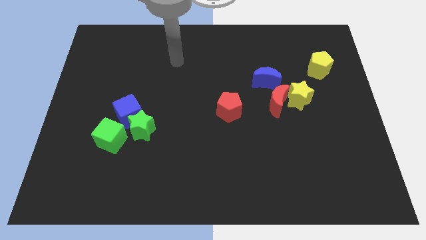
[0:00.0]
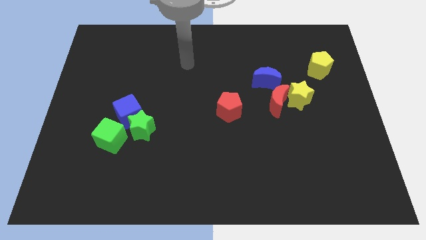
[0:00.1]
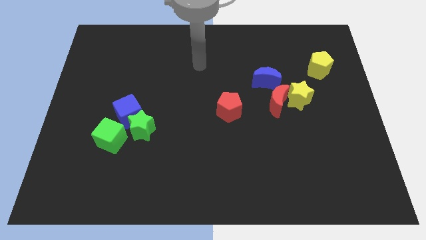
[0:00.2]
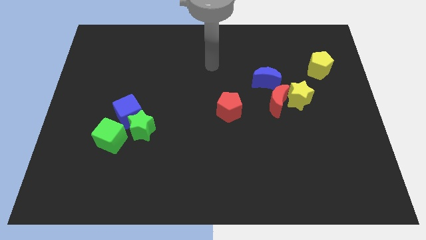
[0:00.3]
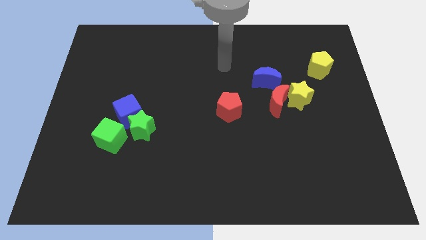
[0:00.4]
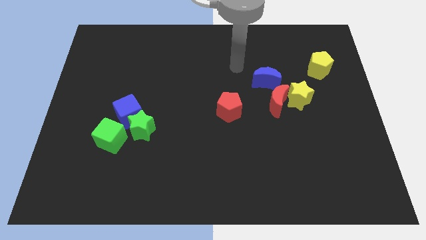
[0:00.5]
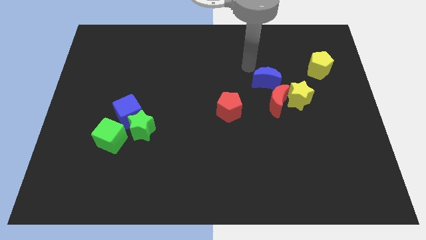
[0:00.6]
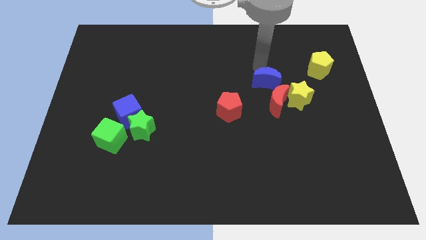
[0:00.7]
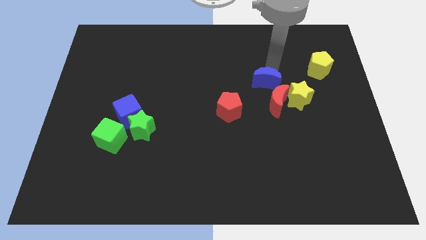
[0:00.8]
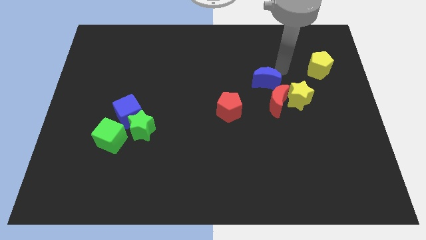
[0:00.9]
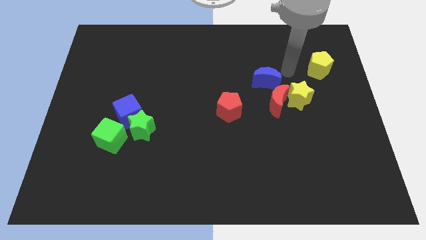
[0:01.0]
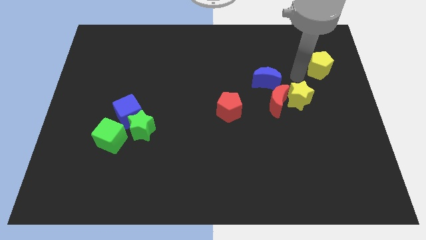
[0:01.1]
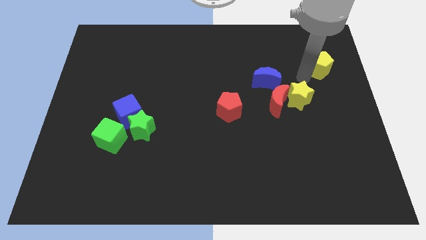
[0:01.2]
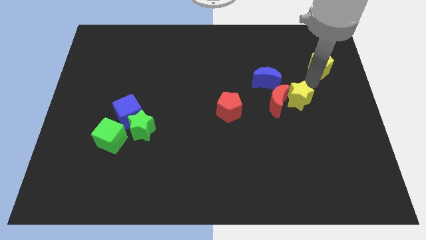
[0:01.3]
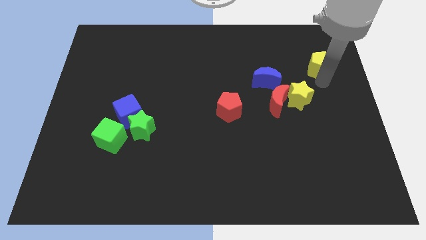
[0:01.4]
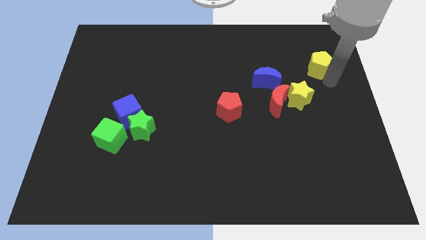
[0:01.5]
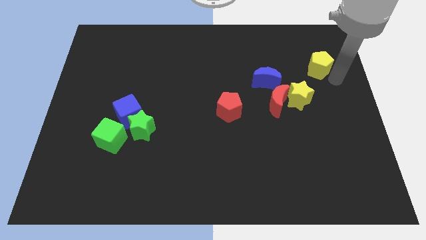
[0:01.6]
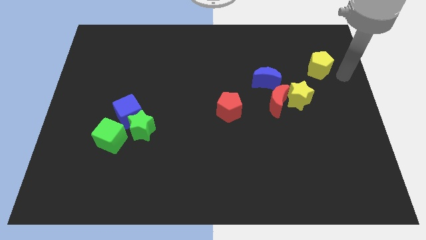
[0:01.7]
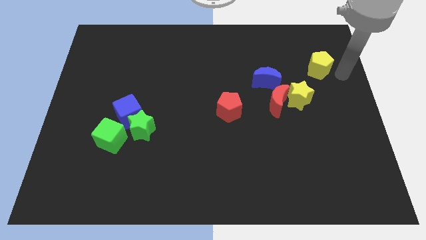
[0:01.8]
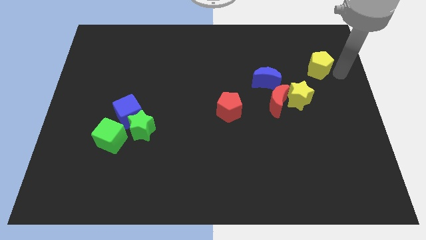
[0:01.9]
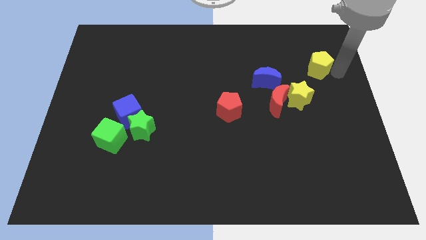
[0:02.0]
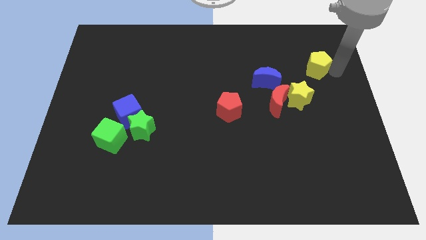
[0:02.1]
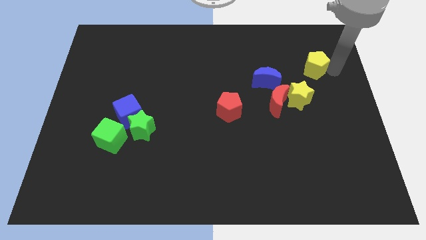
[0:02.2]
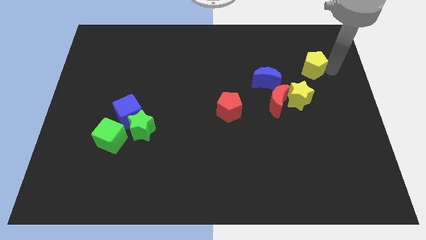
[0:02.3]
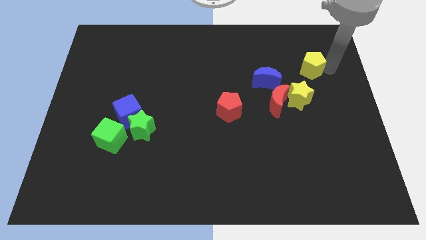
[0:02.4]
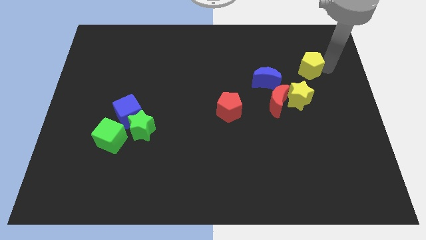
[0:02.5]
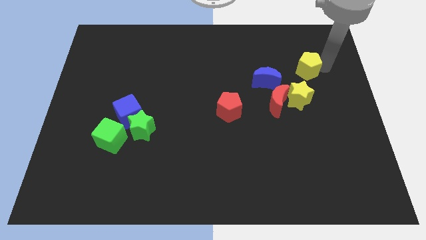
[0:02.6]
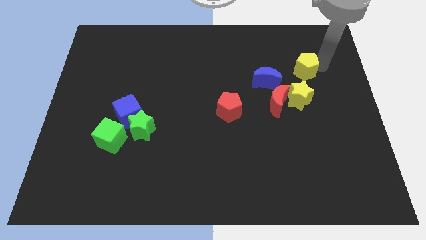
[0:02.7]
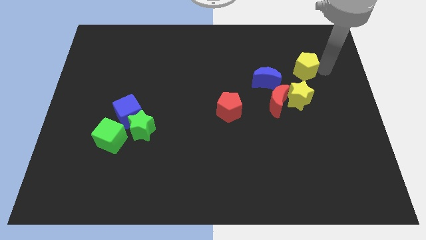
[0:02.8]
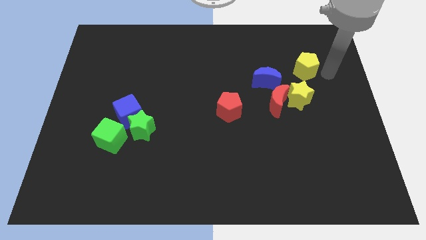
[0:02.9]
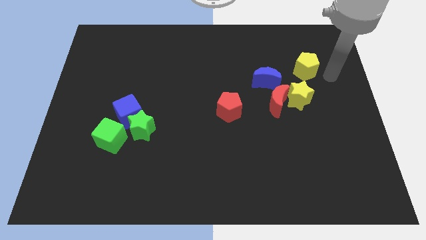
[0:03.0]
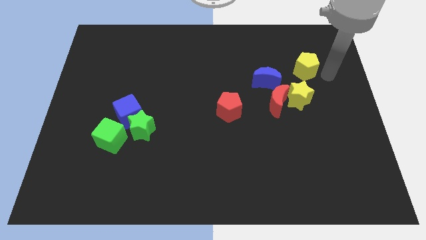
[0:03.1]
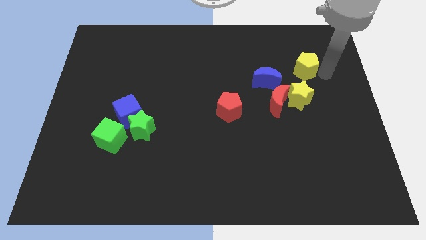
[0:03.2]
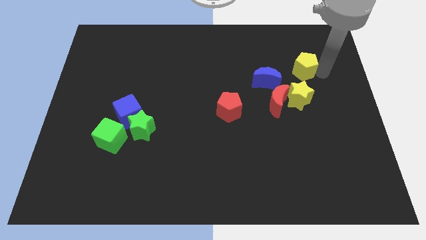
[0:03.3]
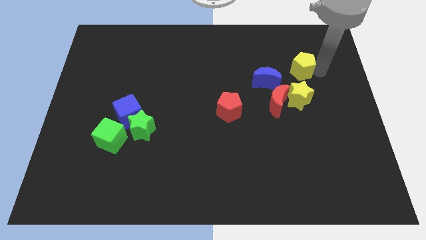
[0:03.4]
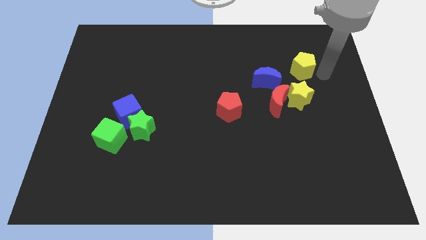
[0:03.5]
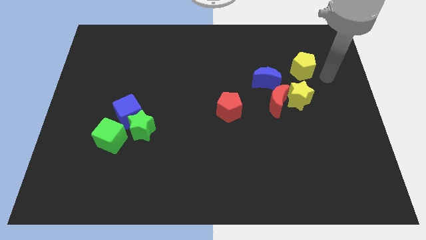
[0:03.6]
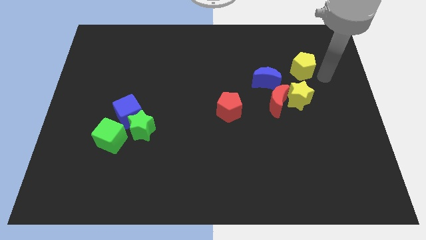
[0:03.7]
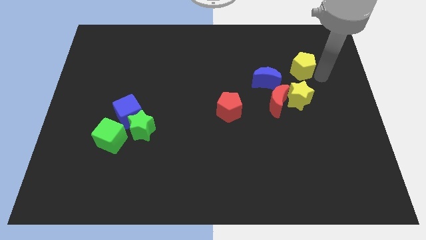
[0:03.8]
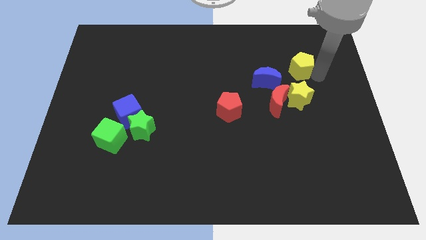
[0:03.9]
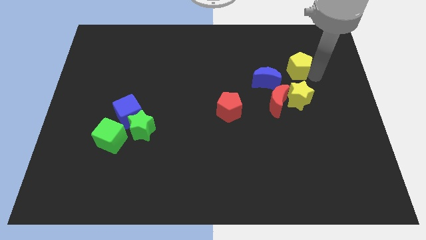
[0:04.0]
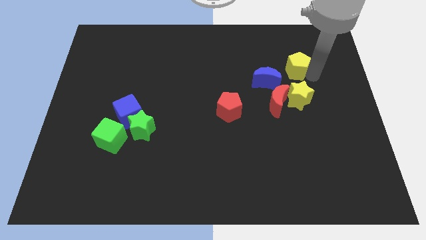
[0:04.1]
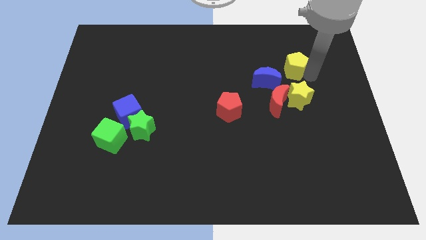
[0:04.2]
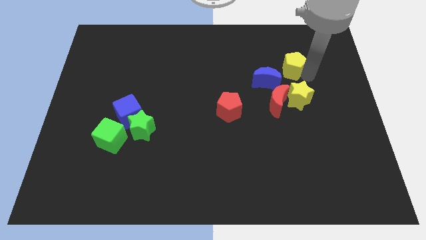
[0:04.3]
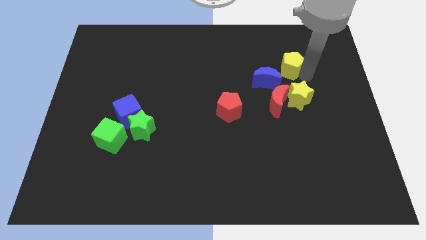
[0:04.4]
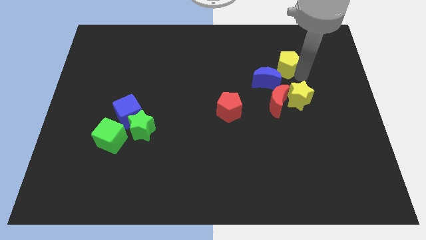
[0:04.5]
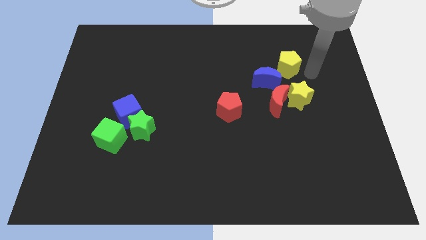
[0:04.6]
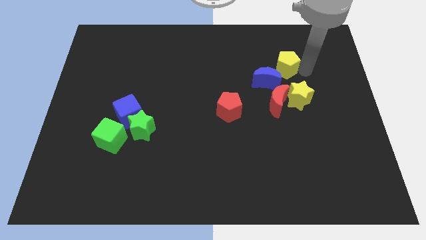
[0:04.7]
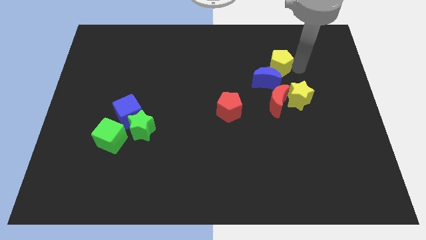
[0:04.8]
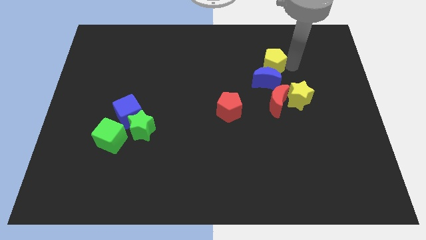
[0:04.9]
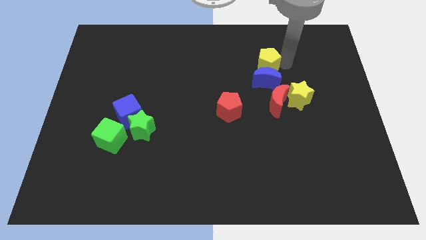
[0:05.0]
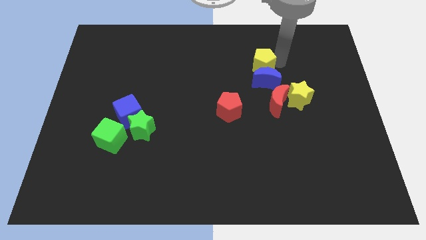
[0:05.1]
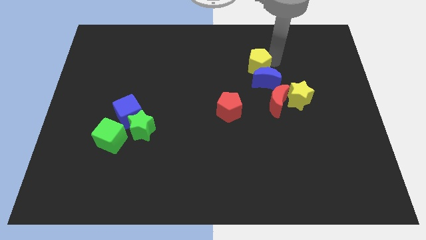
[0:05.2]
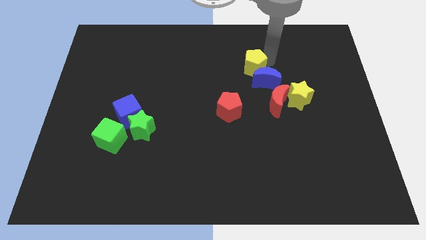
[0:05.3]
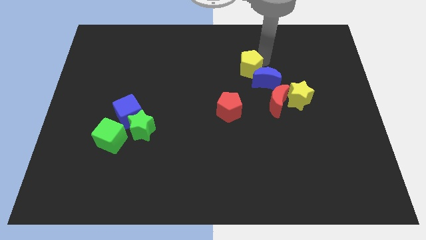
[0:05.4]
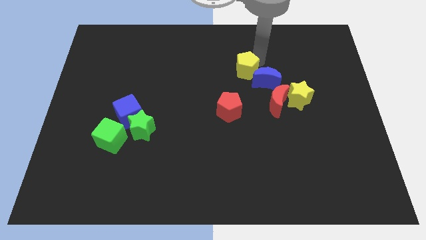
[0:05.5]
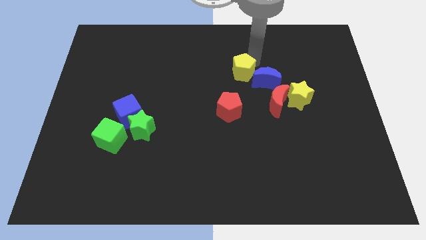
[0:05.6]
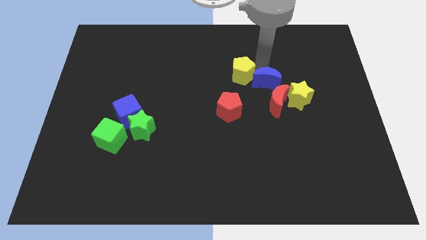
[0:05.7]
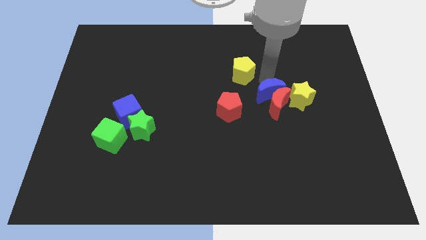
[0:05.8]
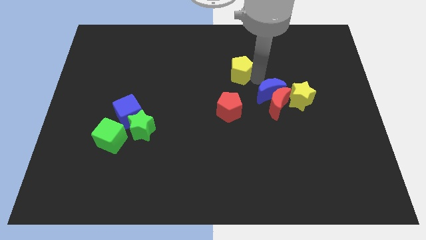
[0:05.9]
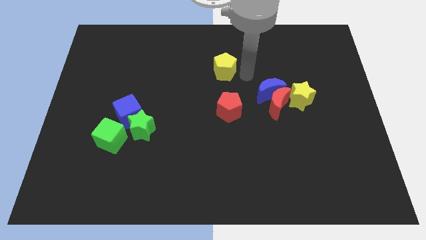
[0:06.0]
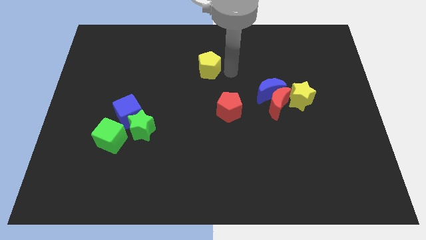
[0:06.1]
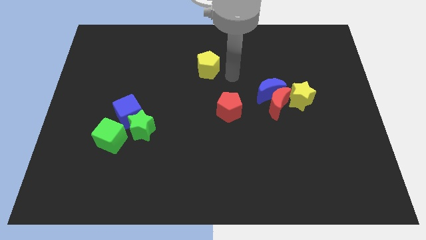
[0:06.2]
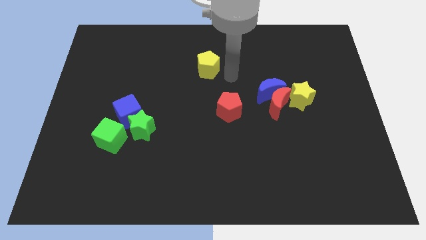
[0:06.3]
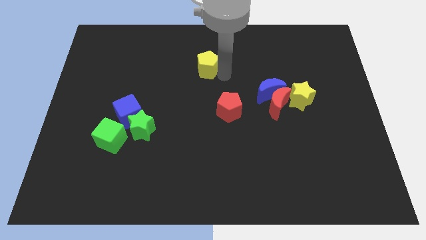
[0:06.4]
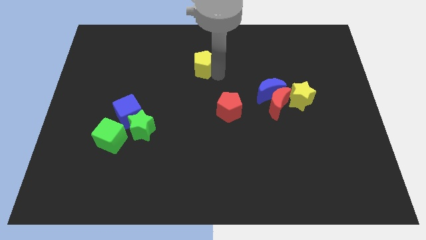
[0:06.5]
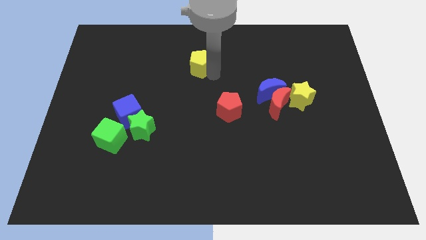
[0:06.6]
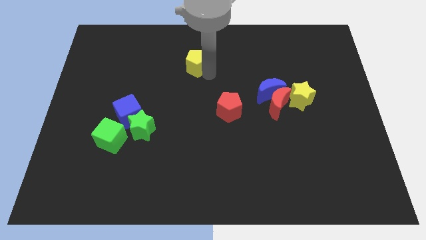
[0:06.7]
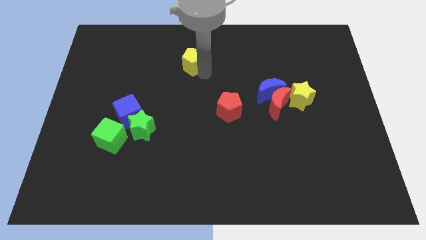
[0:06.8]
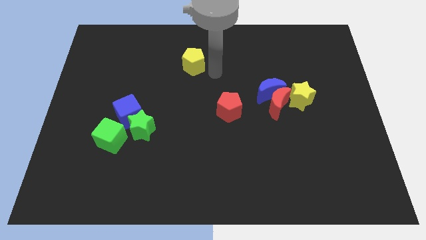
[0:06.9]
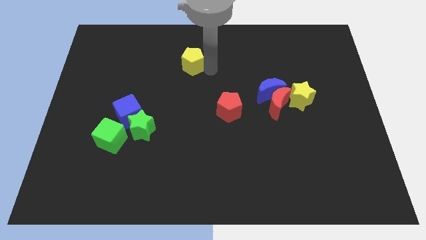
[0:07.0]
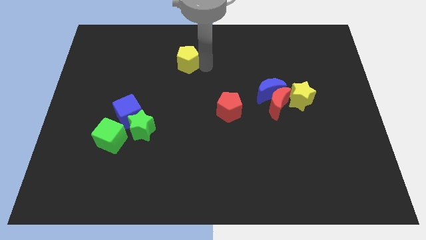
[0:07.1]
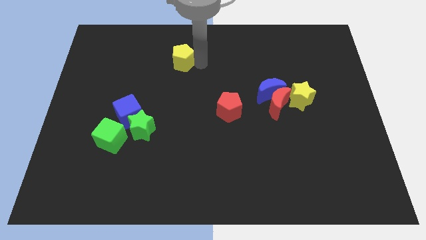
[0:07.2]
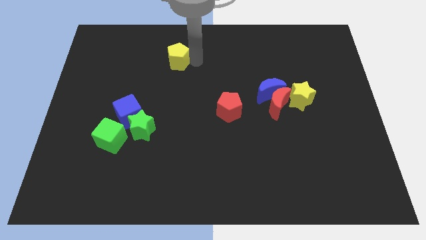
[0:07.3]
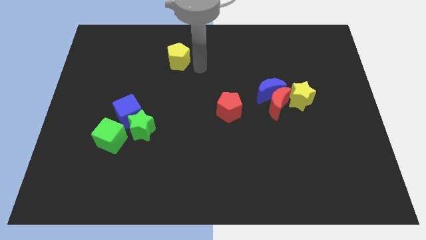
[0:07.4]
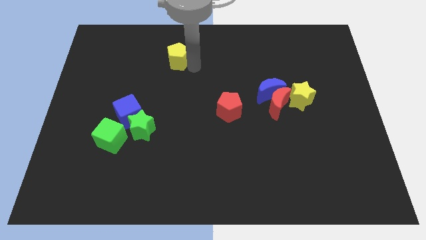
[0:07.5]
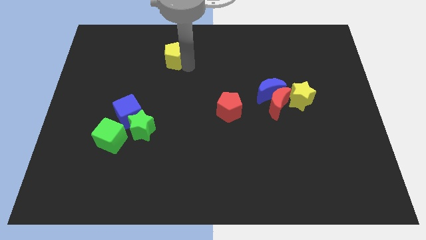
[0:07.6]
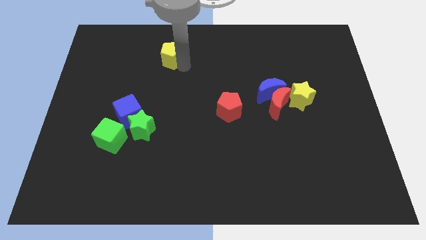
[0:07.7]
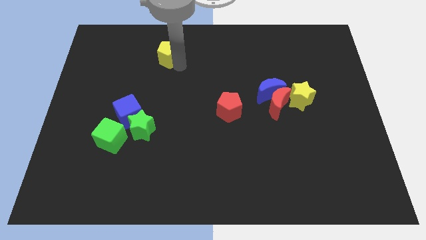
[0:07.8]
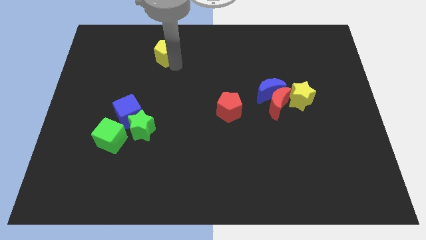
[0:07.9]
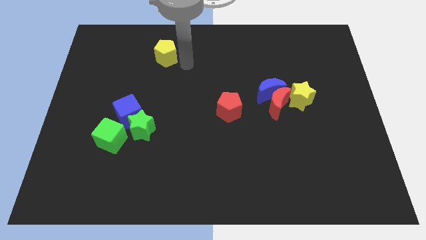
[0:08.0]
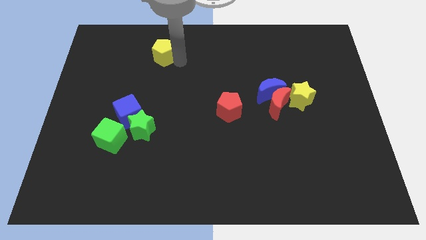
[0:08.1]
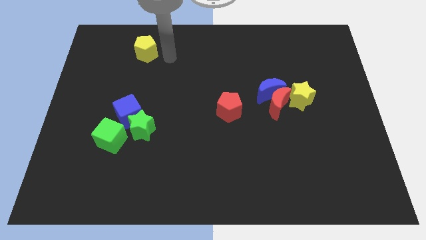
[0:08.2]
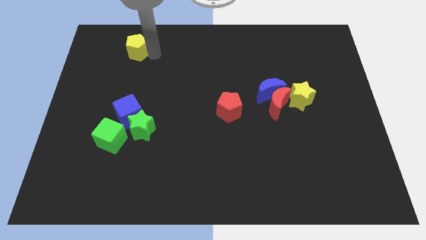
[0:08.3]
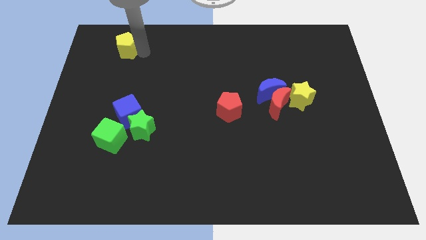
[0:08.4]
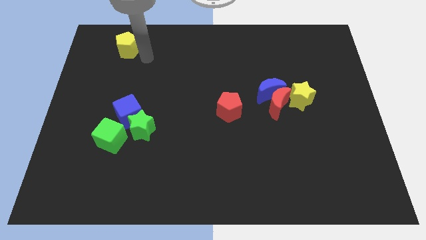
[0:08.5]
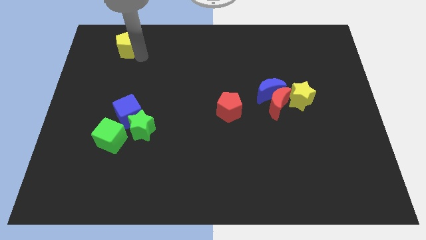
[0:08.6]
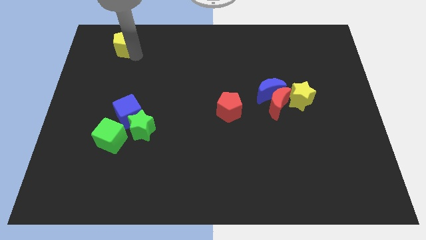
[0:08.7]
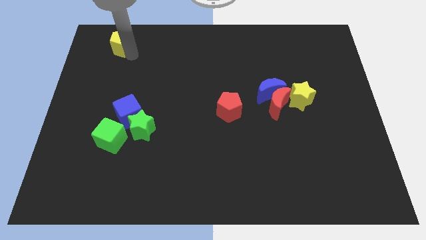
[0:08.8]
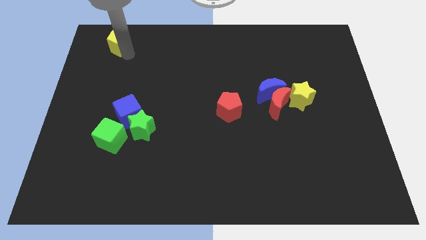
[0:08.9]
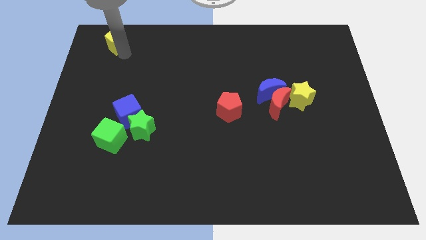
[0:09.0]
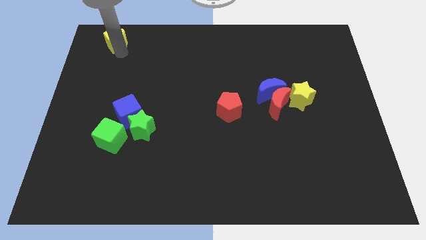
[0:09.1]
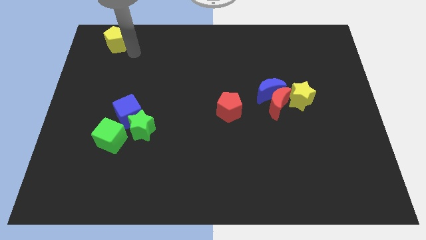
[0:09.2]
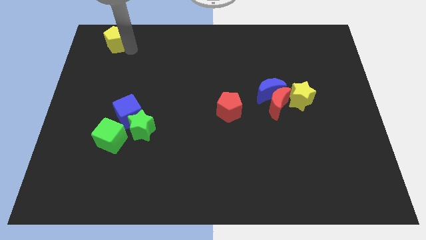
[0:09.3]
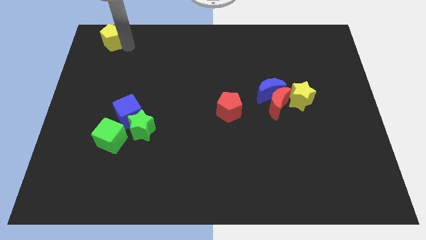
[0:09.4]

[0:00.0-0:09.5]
slide the yellow pentagon to the upper left corner
